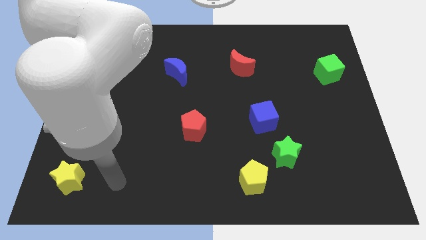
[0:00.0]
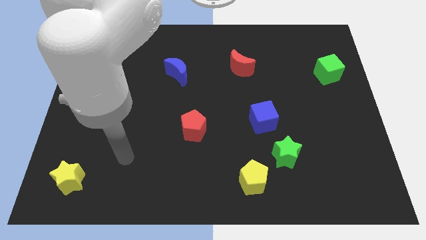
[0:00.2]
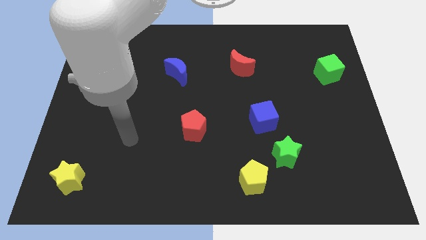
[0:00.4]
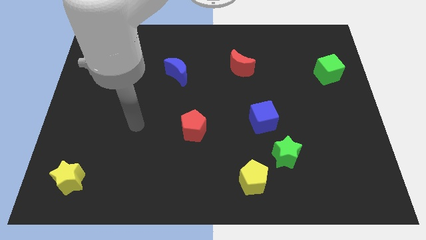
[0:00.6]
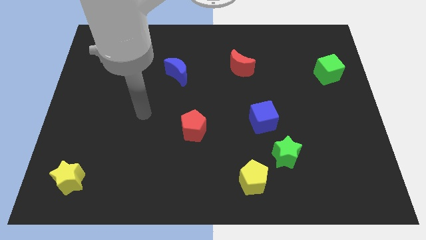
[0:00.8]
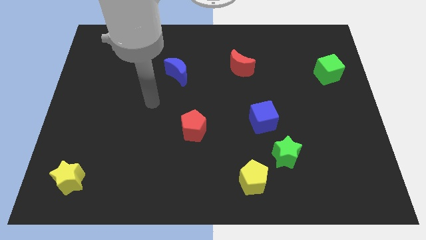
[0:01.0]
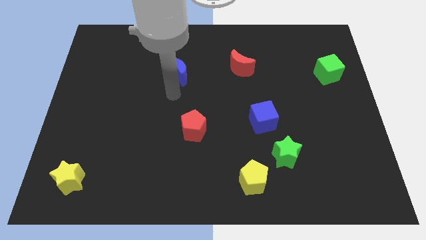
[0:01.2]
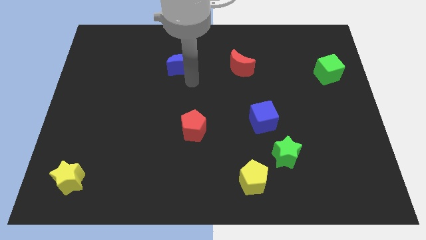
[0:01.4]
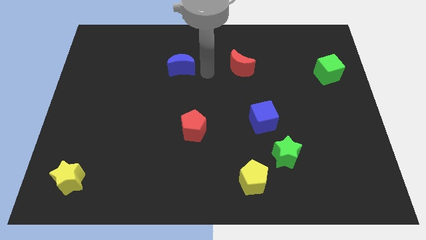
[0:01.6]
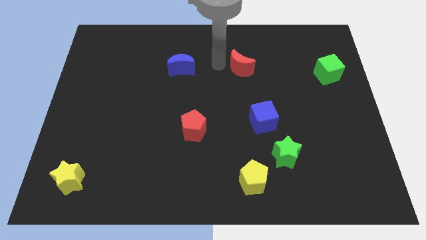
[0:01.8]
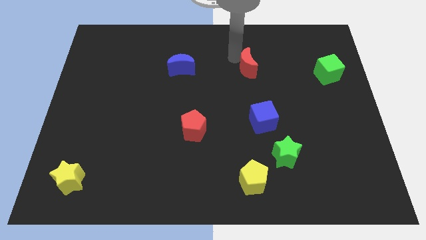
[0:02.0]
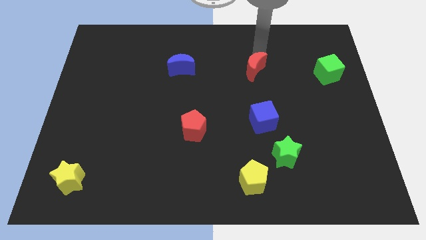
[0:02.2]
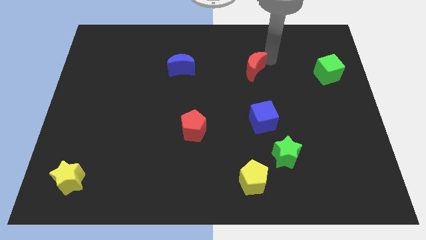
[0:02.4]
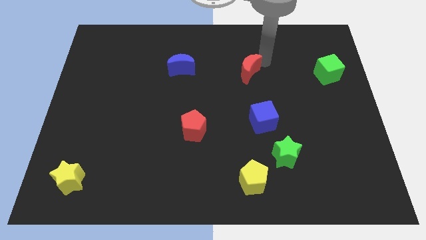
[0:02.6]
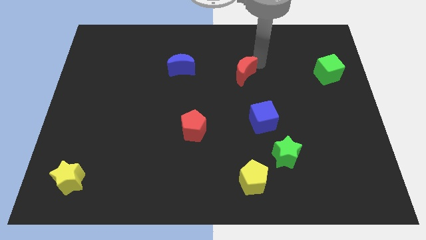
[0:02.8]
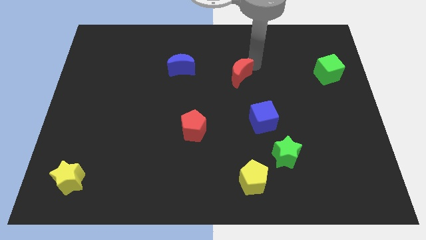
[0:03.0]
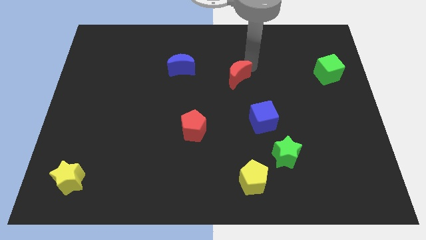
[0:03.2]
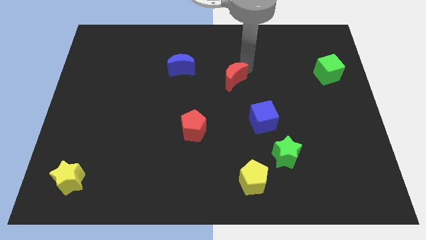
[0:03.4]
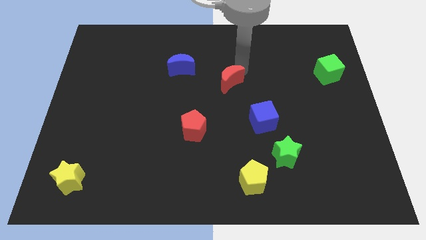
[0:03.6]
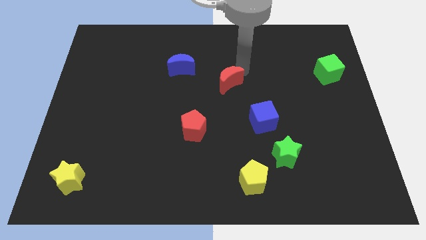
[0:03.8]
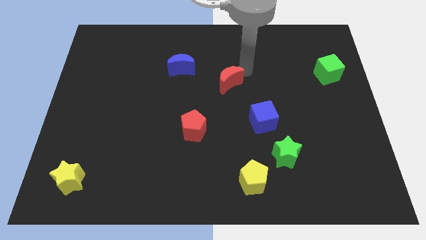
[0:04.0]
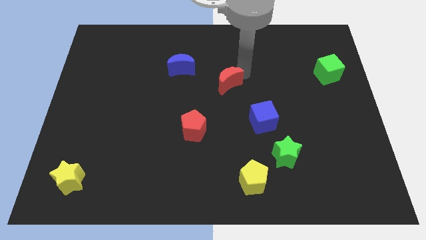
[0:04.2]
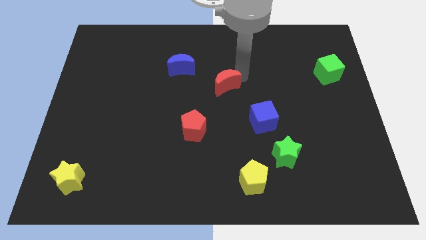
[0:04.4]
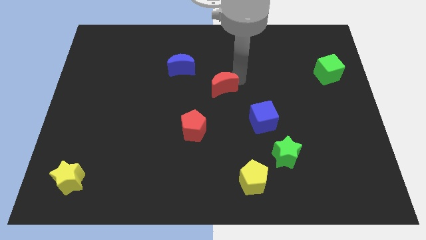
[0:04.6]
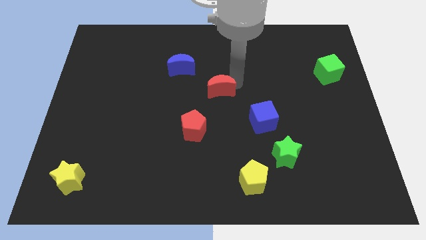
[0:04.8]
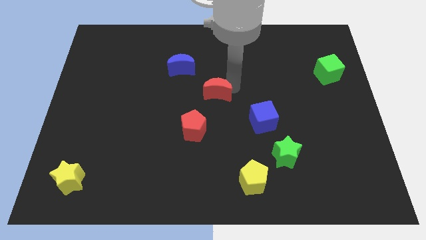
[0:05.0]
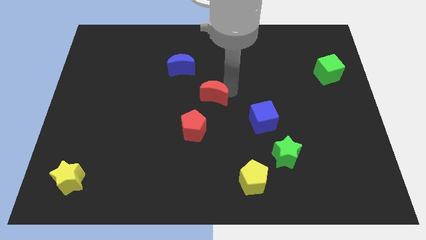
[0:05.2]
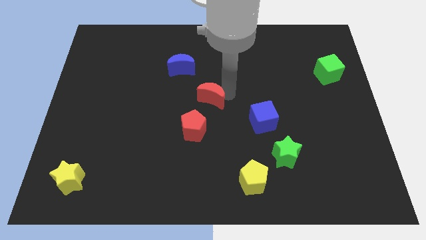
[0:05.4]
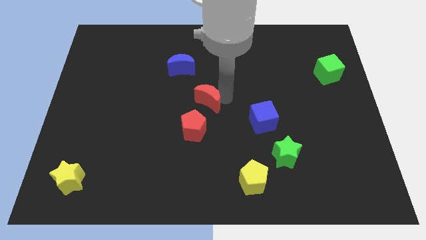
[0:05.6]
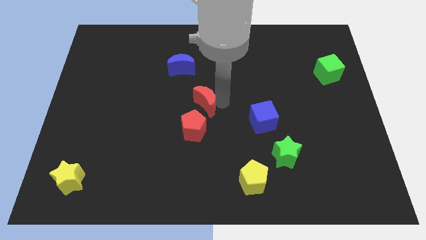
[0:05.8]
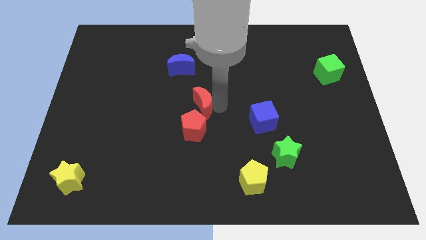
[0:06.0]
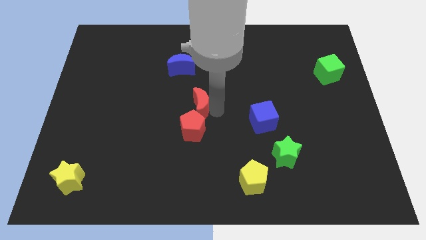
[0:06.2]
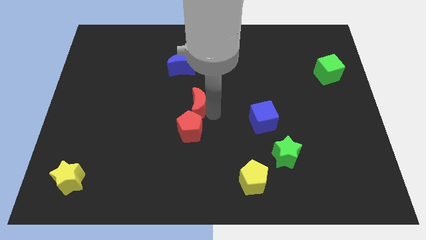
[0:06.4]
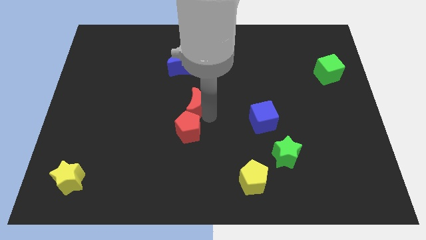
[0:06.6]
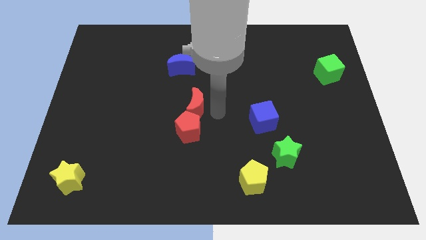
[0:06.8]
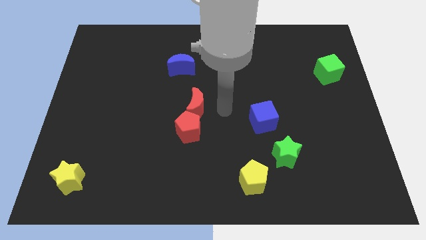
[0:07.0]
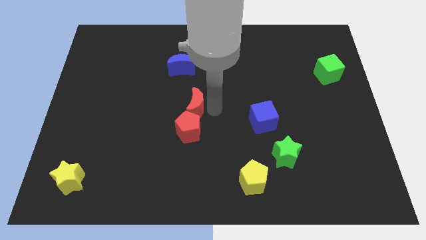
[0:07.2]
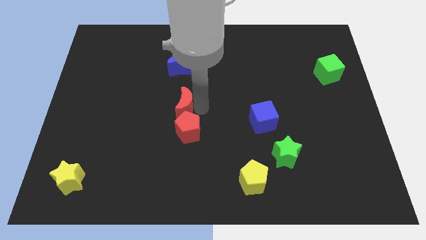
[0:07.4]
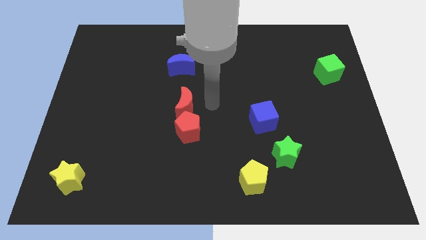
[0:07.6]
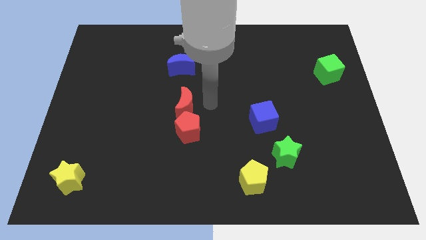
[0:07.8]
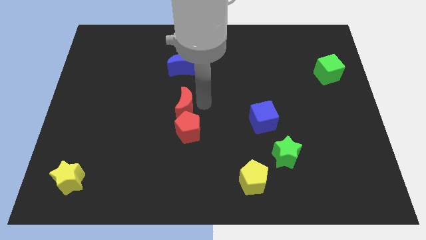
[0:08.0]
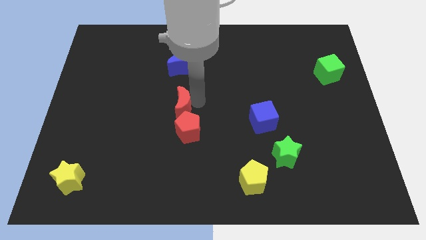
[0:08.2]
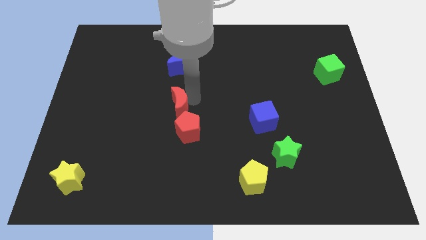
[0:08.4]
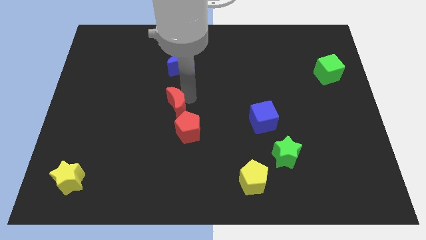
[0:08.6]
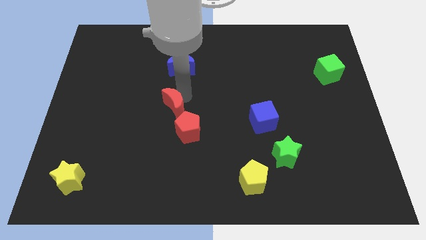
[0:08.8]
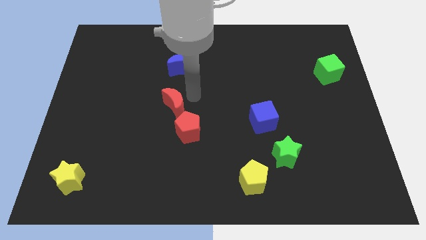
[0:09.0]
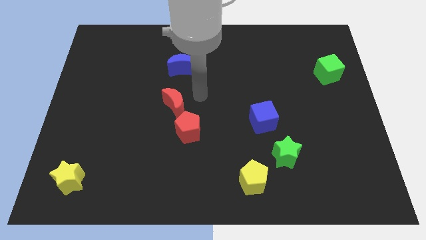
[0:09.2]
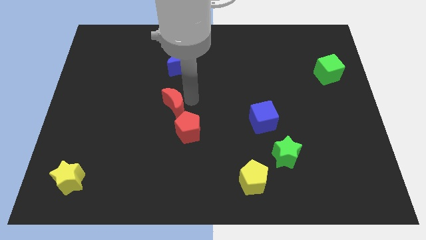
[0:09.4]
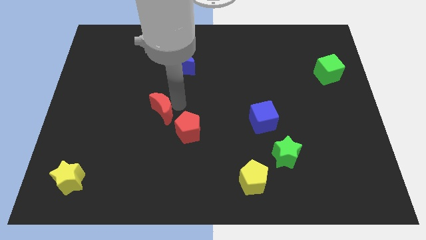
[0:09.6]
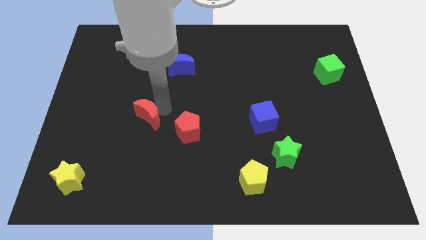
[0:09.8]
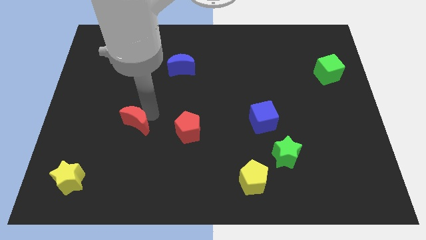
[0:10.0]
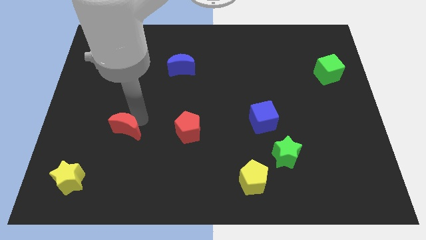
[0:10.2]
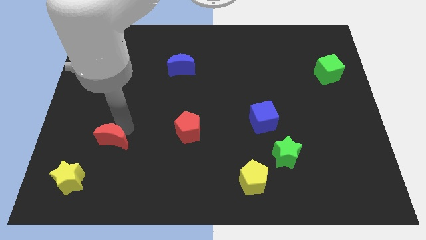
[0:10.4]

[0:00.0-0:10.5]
move the red moon to the top right side of the yellow star

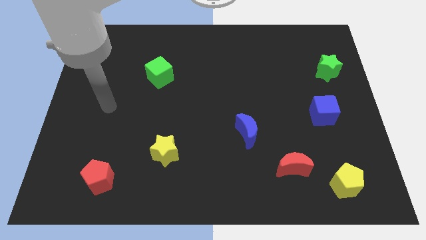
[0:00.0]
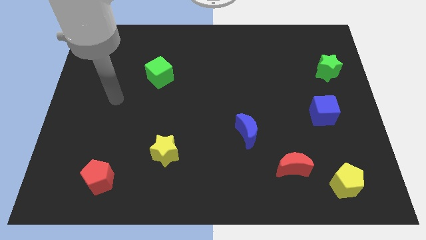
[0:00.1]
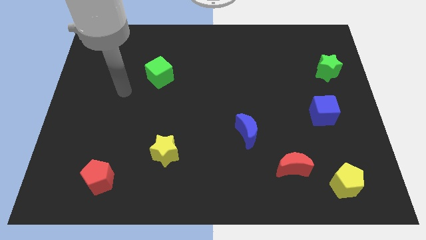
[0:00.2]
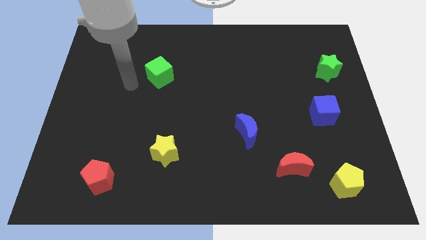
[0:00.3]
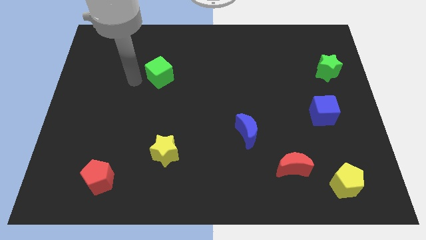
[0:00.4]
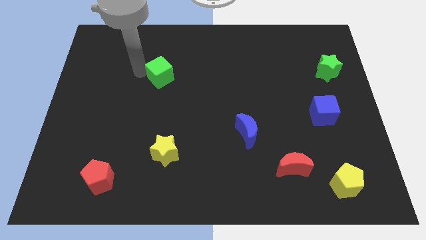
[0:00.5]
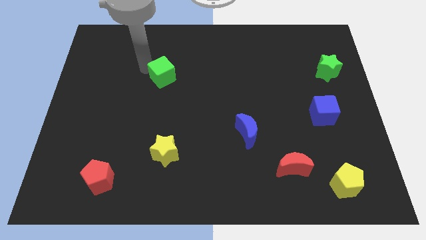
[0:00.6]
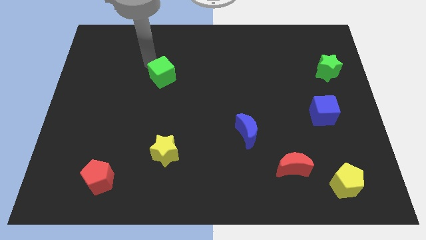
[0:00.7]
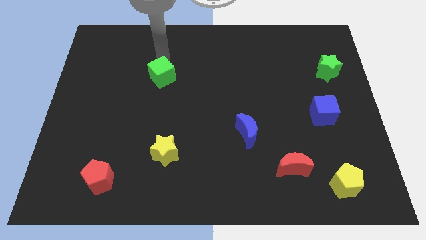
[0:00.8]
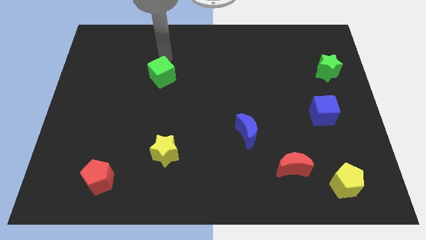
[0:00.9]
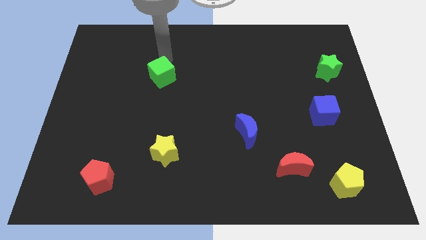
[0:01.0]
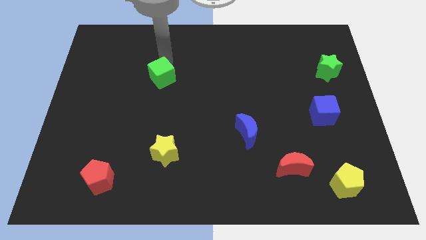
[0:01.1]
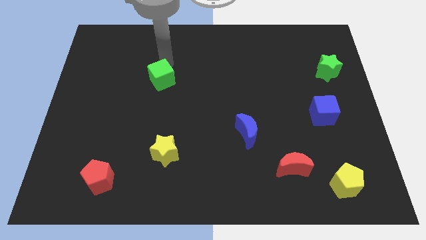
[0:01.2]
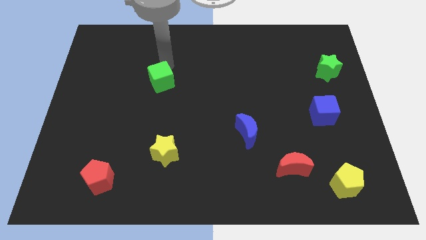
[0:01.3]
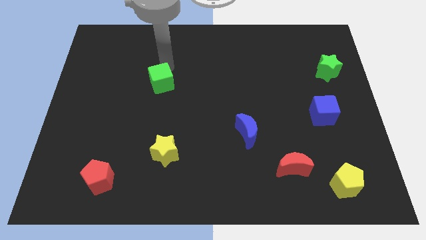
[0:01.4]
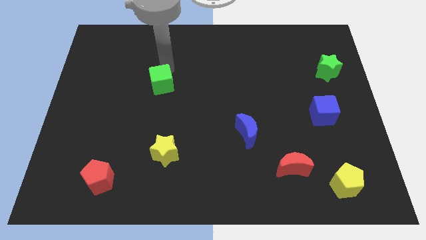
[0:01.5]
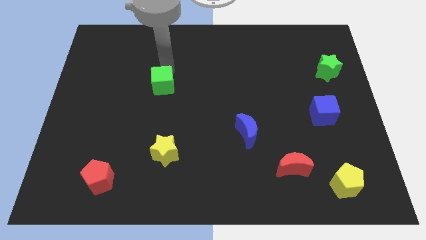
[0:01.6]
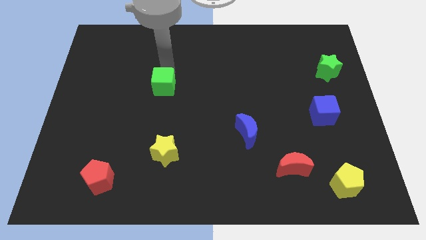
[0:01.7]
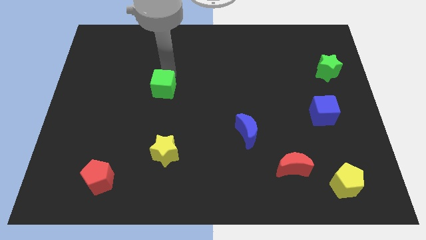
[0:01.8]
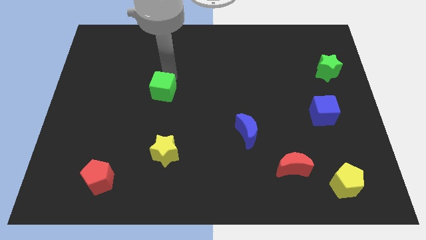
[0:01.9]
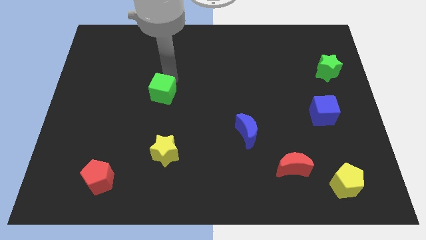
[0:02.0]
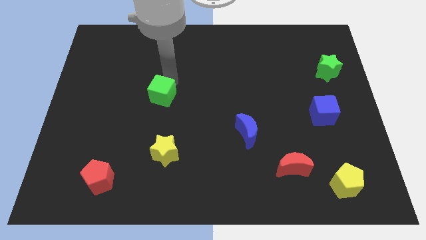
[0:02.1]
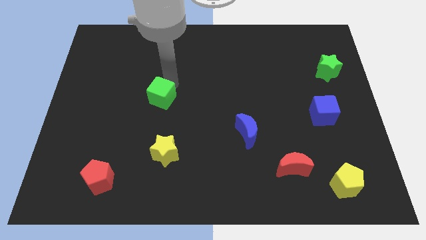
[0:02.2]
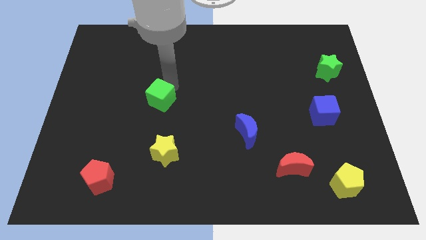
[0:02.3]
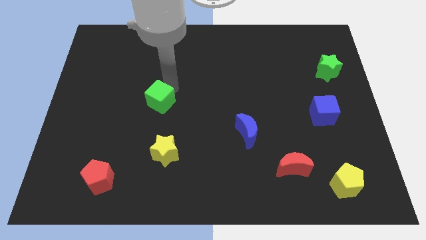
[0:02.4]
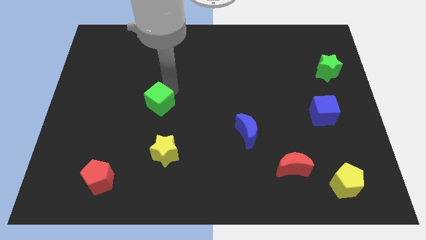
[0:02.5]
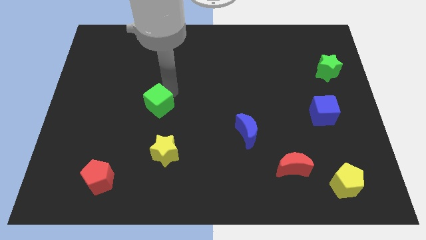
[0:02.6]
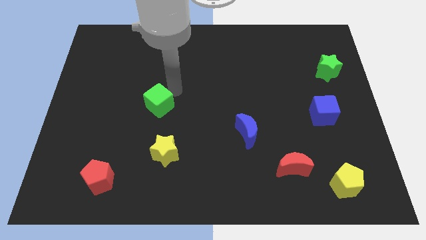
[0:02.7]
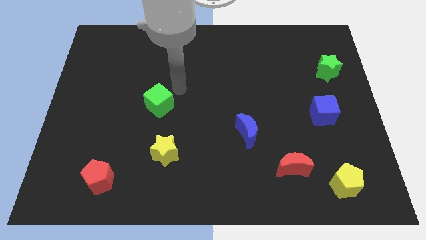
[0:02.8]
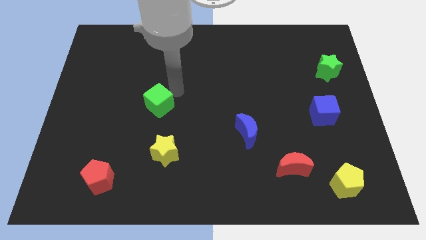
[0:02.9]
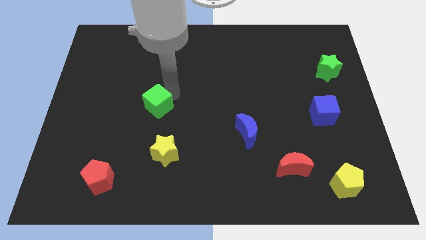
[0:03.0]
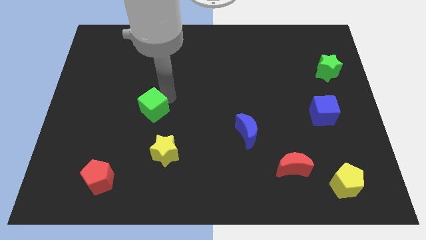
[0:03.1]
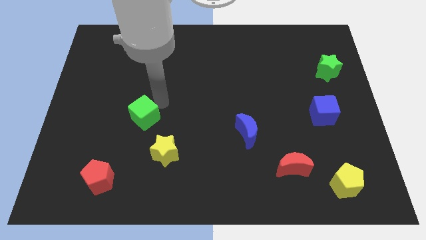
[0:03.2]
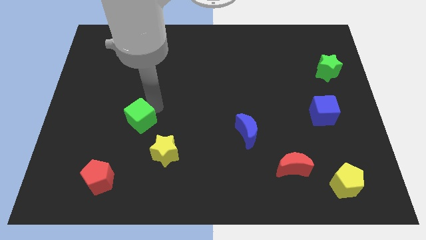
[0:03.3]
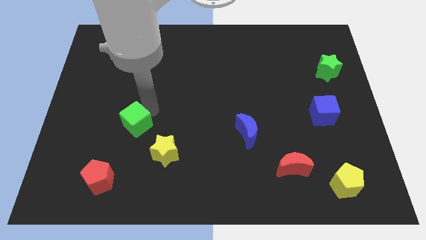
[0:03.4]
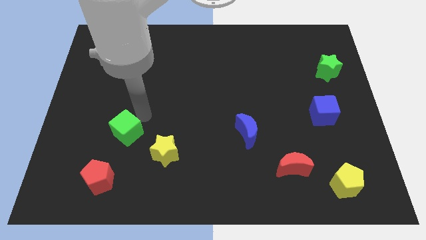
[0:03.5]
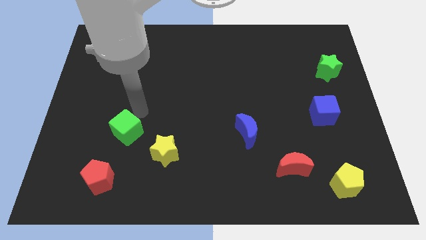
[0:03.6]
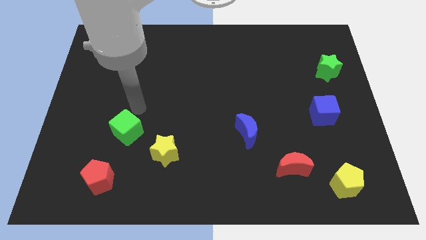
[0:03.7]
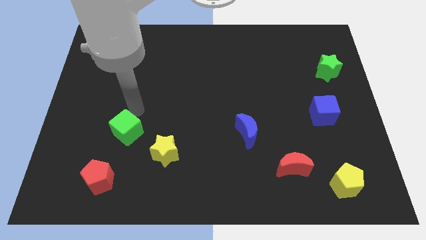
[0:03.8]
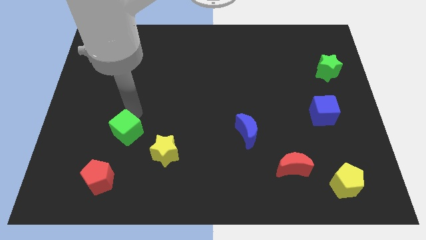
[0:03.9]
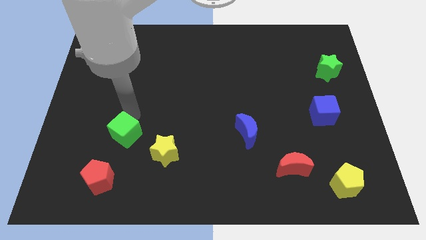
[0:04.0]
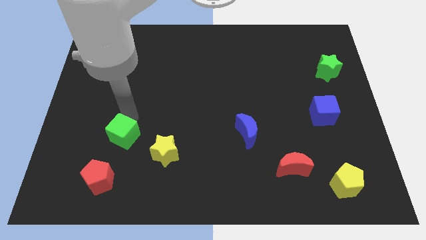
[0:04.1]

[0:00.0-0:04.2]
push the green cube left of the yellow star
